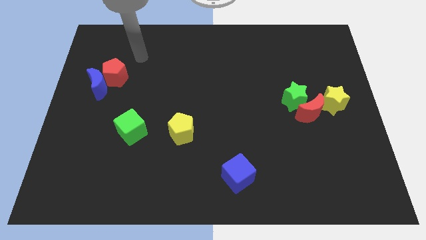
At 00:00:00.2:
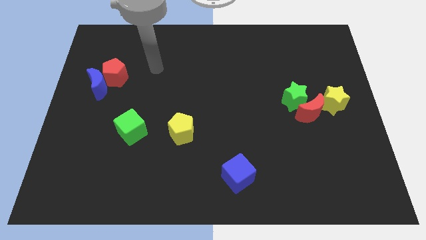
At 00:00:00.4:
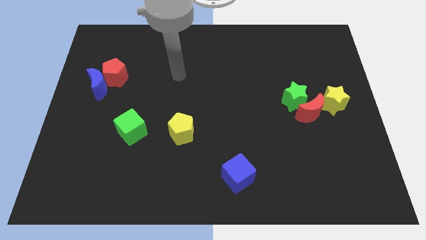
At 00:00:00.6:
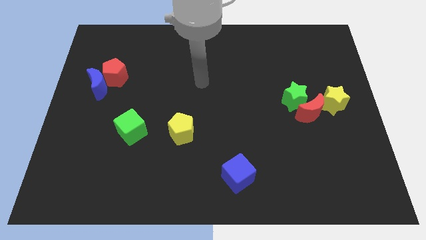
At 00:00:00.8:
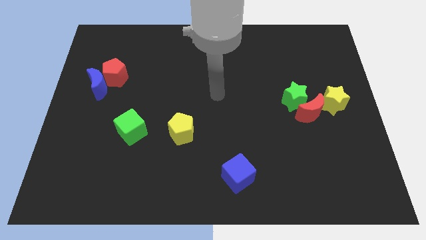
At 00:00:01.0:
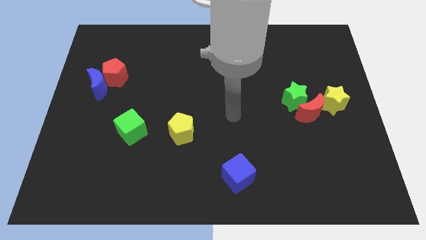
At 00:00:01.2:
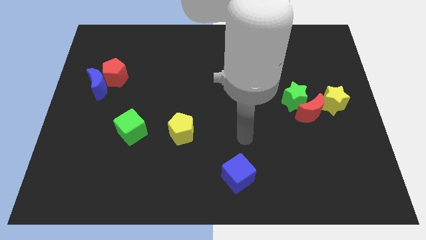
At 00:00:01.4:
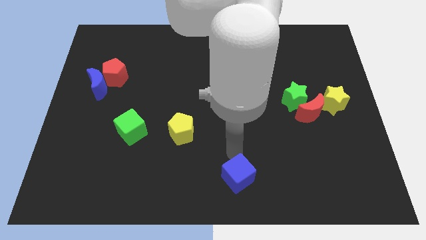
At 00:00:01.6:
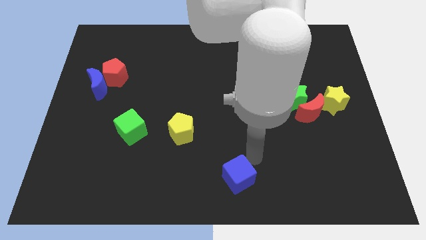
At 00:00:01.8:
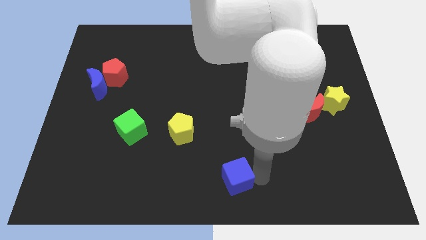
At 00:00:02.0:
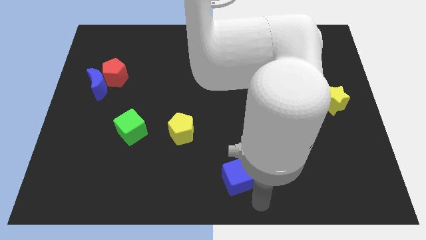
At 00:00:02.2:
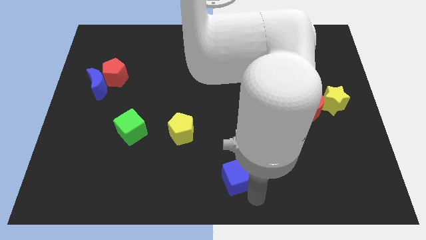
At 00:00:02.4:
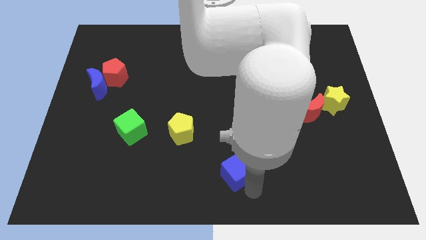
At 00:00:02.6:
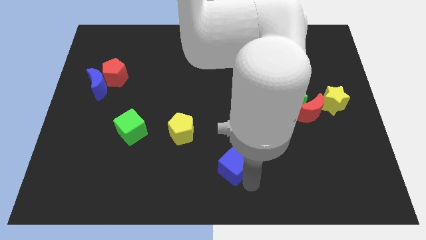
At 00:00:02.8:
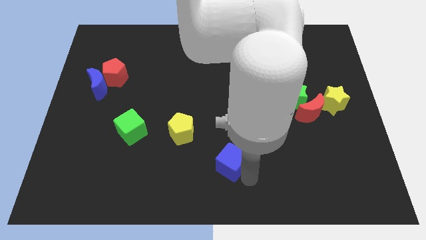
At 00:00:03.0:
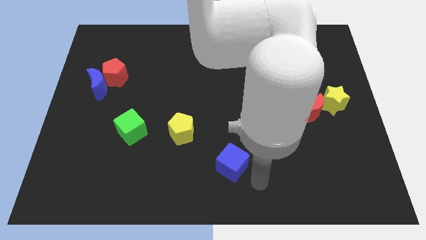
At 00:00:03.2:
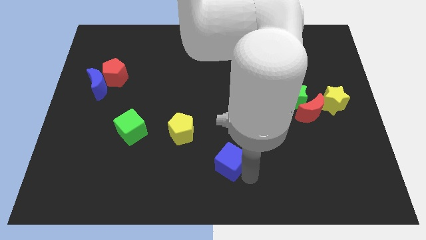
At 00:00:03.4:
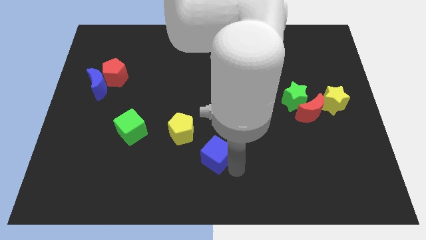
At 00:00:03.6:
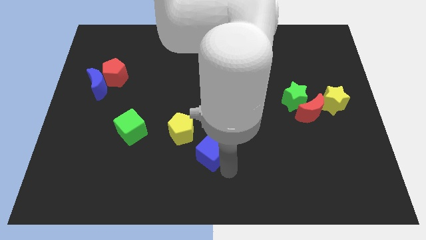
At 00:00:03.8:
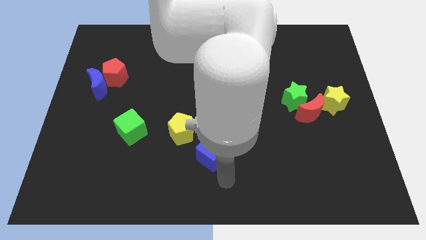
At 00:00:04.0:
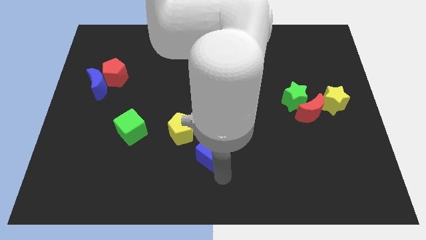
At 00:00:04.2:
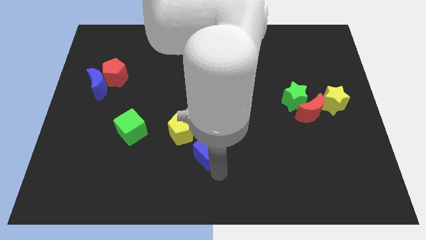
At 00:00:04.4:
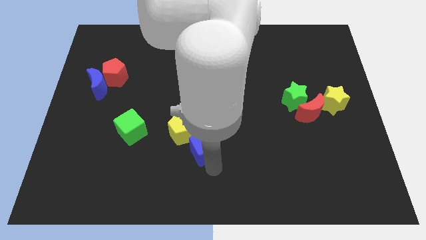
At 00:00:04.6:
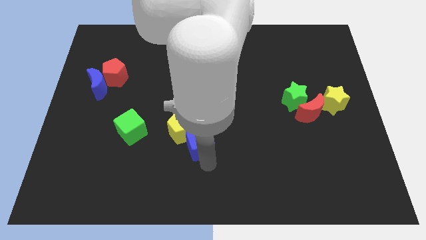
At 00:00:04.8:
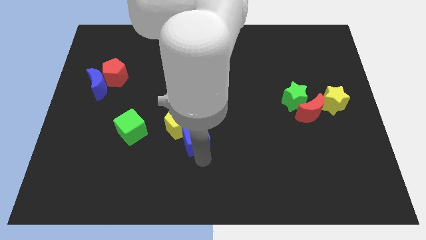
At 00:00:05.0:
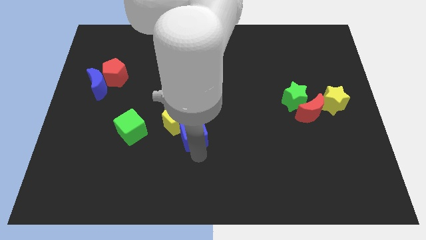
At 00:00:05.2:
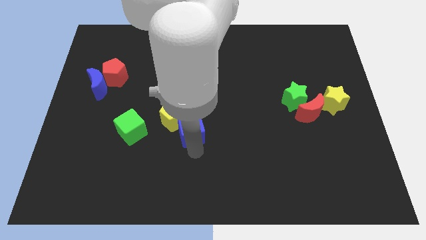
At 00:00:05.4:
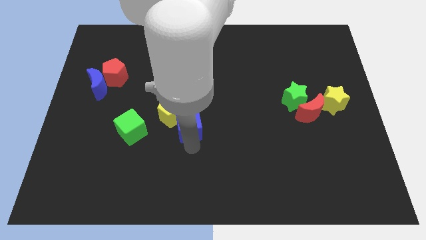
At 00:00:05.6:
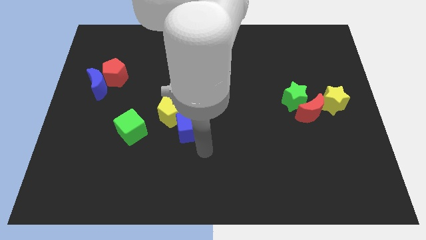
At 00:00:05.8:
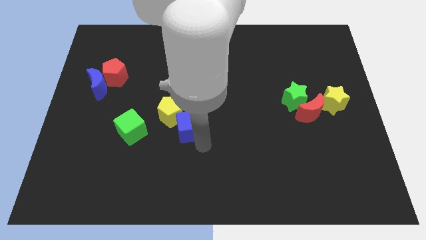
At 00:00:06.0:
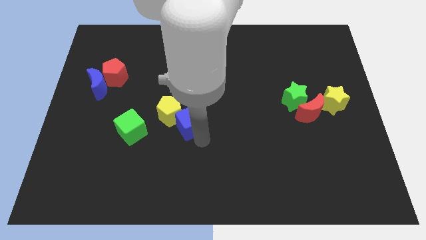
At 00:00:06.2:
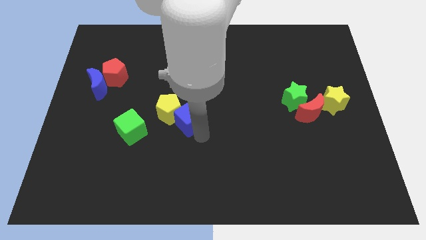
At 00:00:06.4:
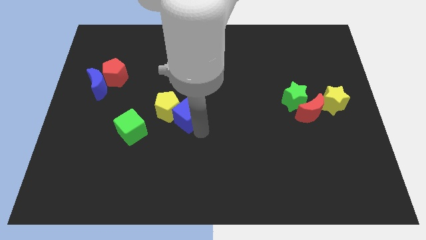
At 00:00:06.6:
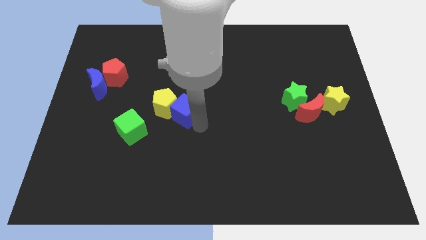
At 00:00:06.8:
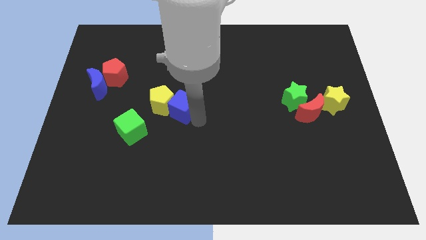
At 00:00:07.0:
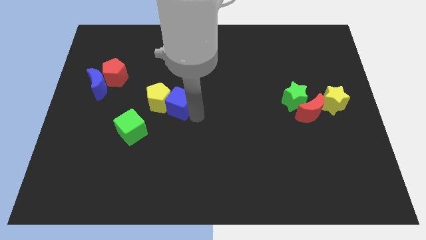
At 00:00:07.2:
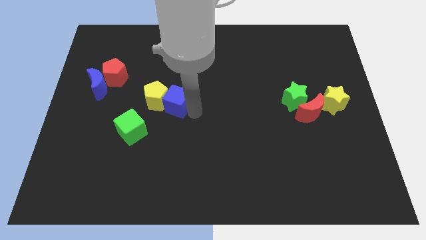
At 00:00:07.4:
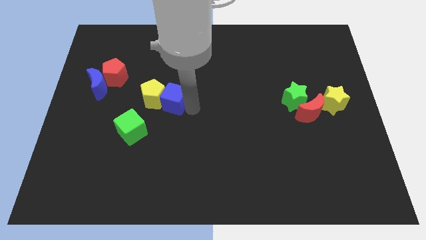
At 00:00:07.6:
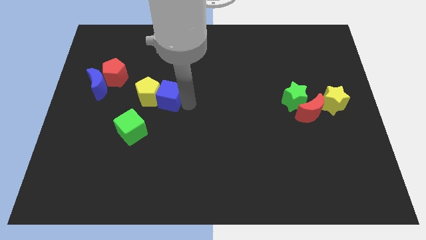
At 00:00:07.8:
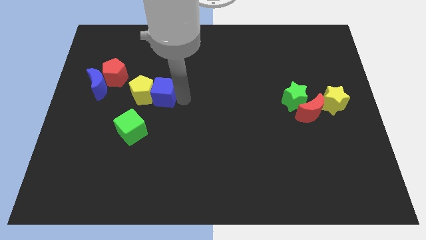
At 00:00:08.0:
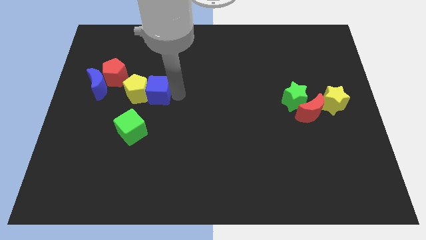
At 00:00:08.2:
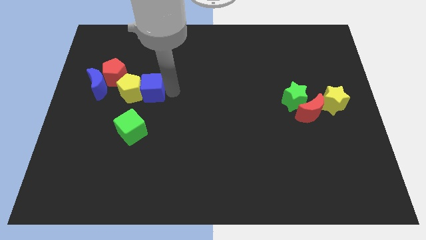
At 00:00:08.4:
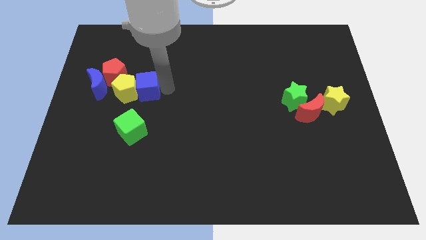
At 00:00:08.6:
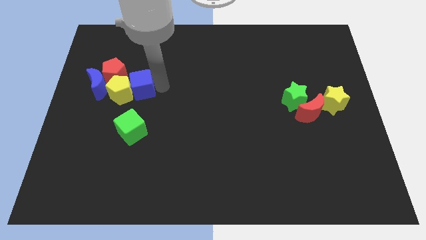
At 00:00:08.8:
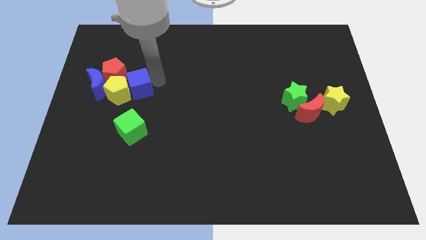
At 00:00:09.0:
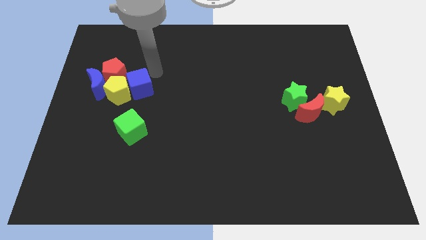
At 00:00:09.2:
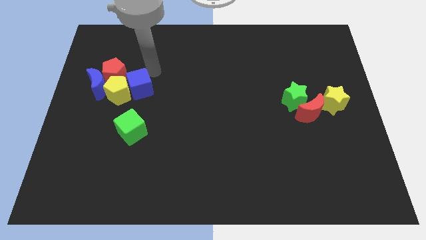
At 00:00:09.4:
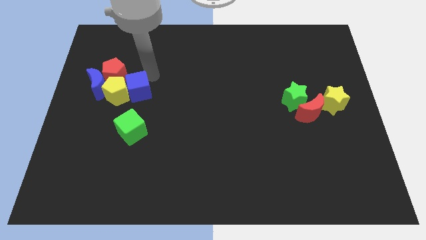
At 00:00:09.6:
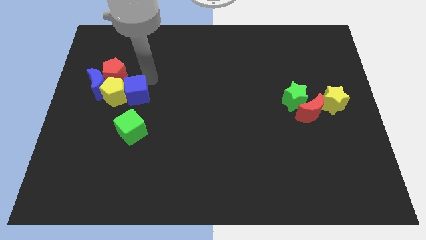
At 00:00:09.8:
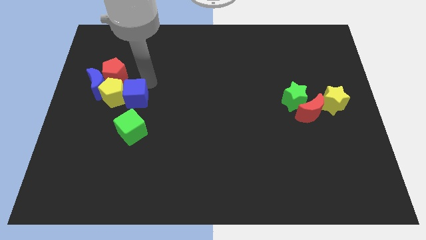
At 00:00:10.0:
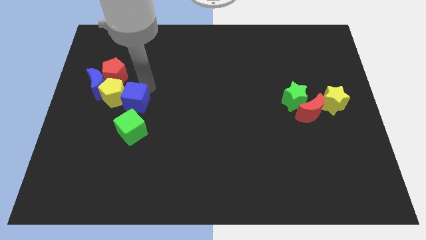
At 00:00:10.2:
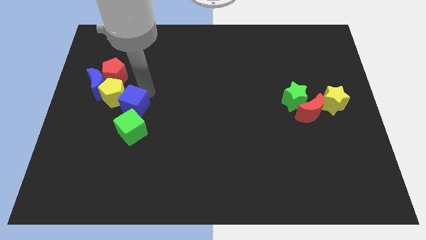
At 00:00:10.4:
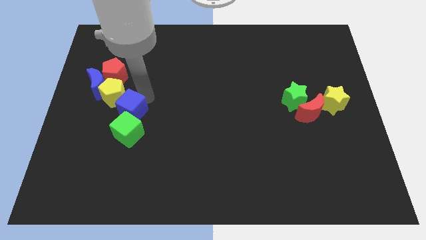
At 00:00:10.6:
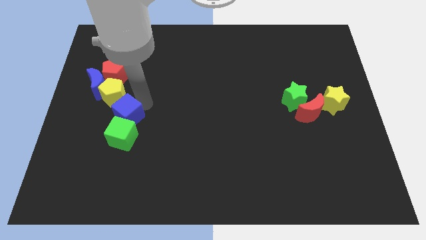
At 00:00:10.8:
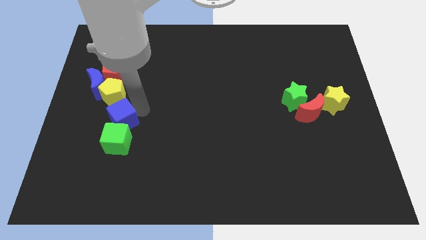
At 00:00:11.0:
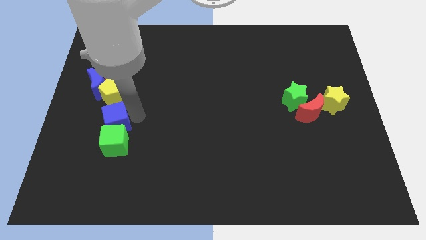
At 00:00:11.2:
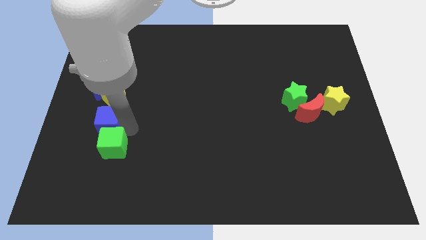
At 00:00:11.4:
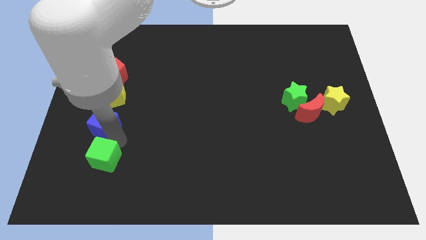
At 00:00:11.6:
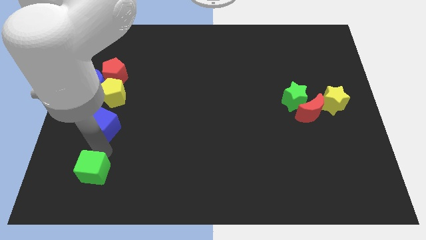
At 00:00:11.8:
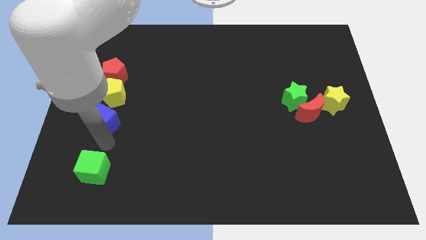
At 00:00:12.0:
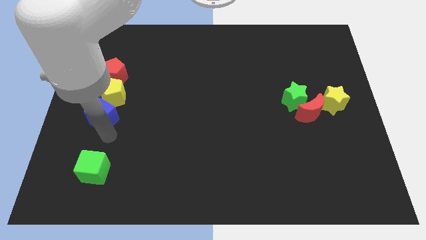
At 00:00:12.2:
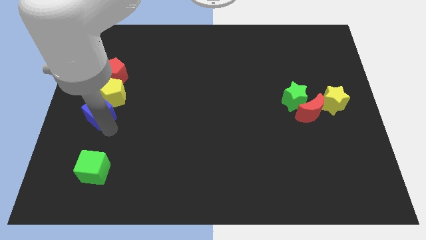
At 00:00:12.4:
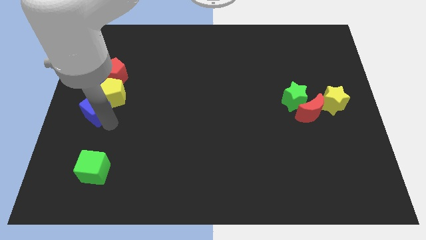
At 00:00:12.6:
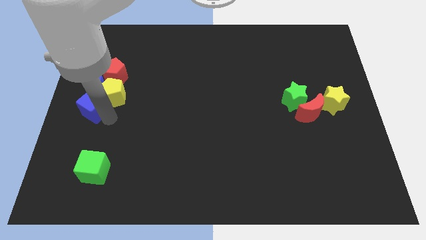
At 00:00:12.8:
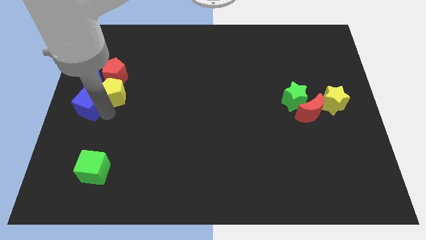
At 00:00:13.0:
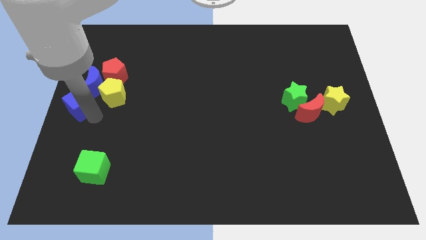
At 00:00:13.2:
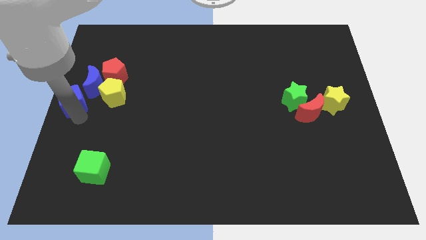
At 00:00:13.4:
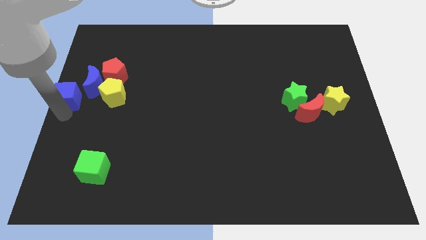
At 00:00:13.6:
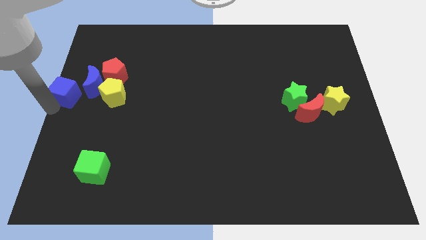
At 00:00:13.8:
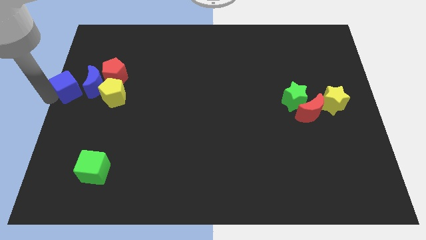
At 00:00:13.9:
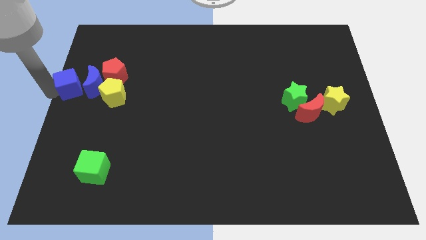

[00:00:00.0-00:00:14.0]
push the blue cube next to the blue moon

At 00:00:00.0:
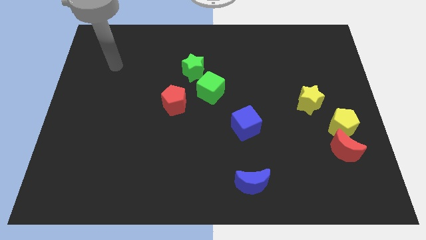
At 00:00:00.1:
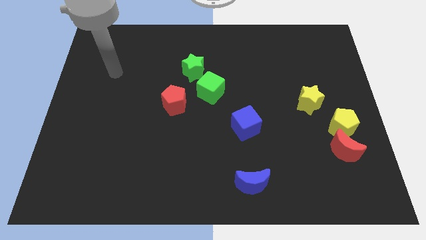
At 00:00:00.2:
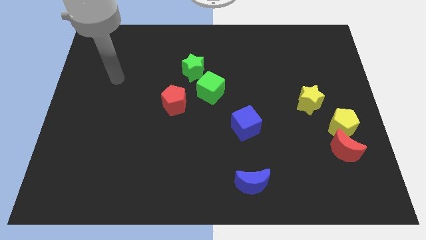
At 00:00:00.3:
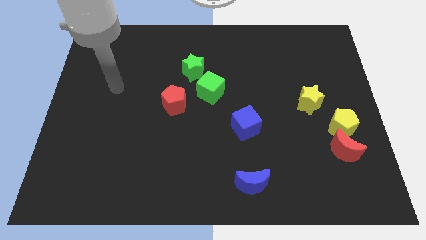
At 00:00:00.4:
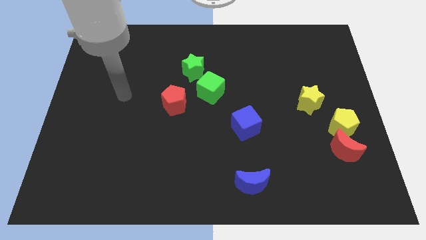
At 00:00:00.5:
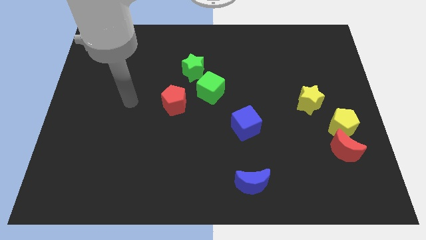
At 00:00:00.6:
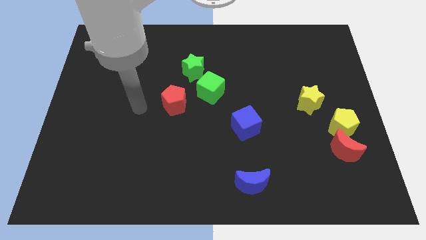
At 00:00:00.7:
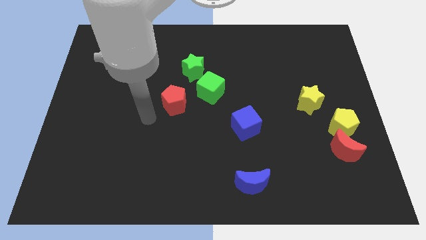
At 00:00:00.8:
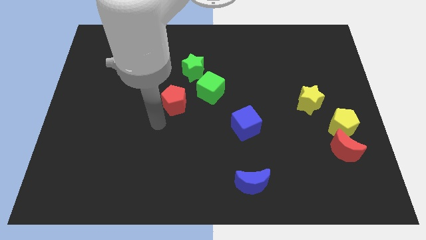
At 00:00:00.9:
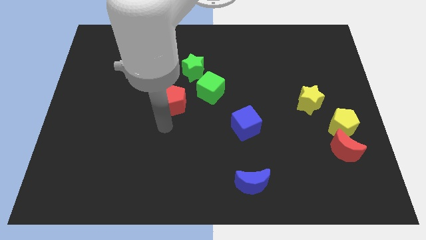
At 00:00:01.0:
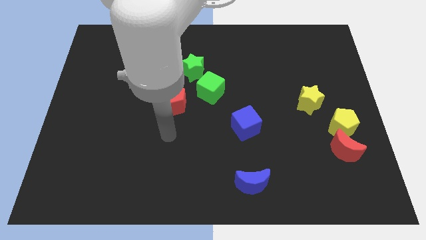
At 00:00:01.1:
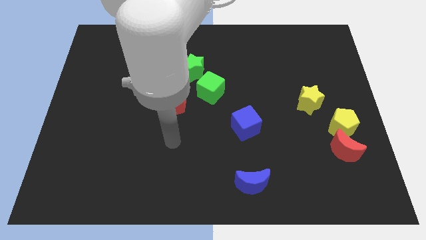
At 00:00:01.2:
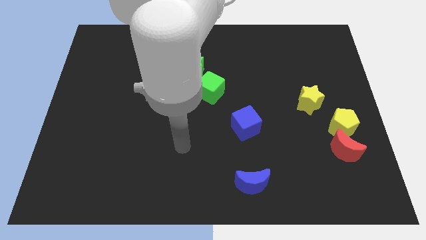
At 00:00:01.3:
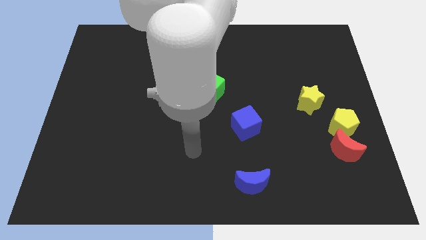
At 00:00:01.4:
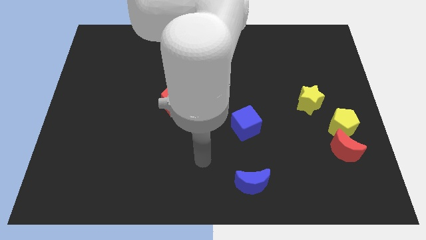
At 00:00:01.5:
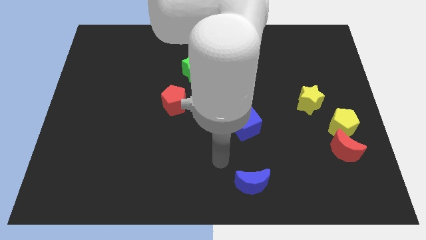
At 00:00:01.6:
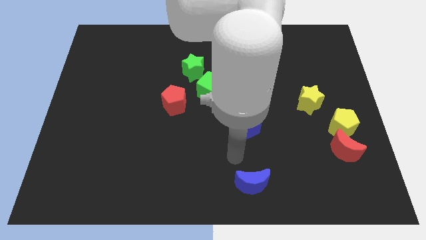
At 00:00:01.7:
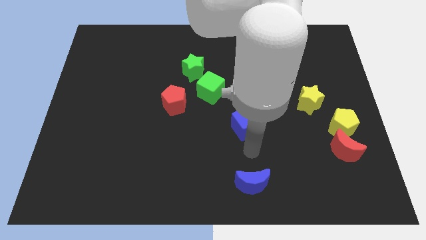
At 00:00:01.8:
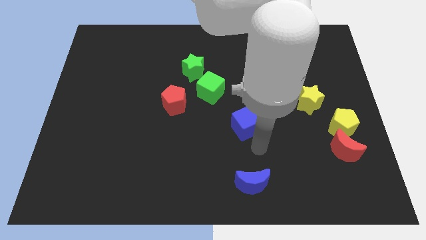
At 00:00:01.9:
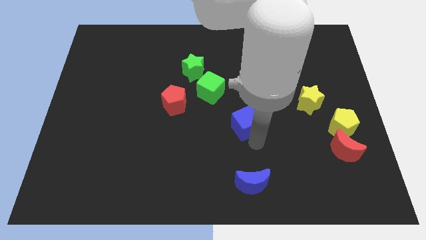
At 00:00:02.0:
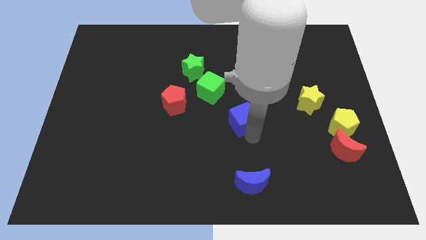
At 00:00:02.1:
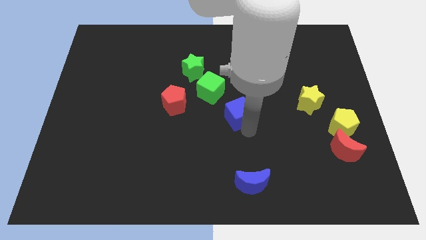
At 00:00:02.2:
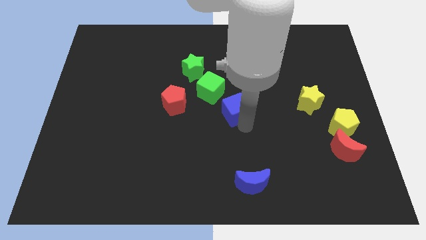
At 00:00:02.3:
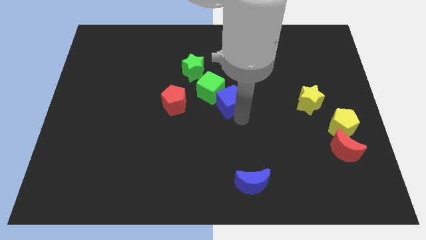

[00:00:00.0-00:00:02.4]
move the blue cube towards the green cube
